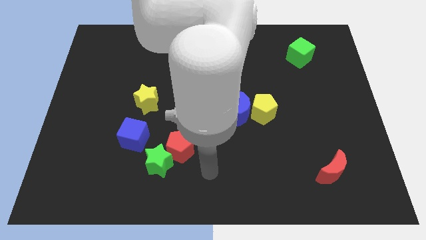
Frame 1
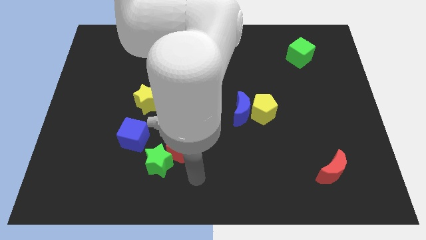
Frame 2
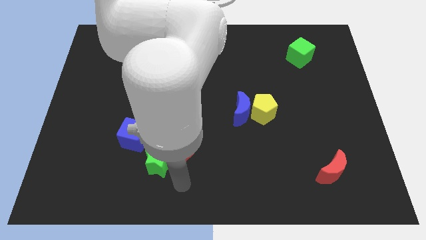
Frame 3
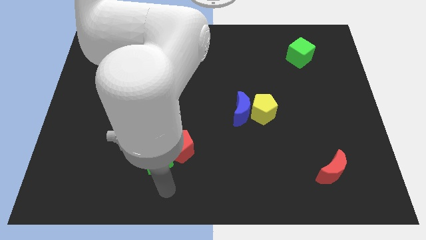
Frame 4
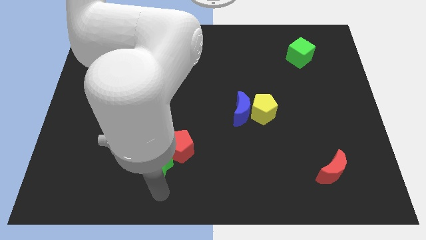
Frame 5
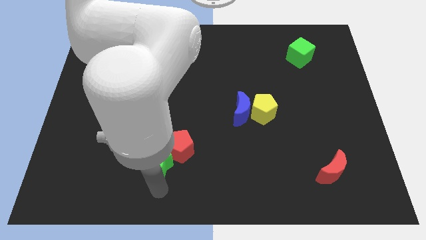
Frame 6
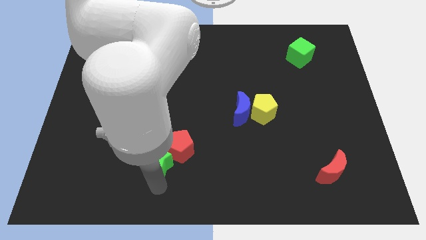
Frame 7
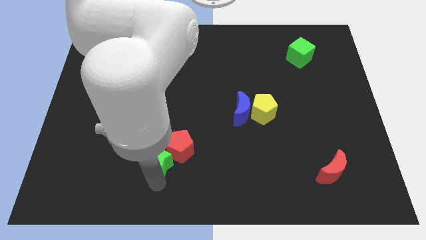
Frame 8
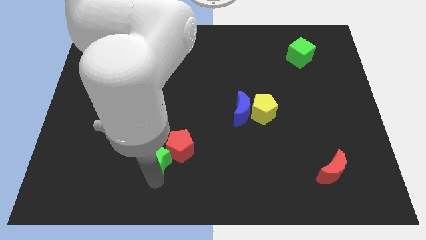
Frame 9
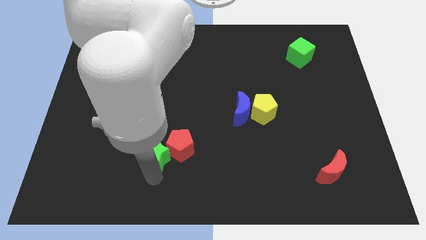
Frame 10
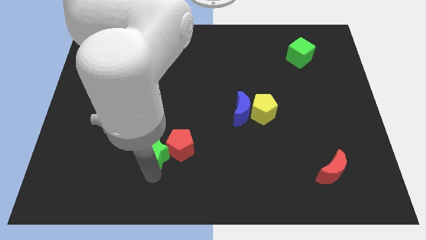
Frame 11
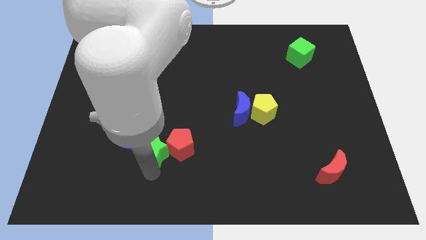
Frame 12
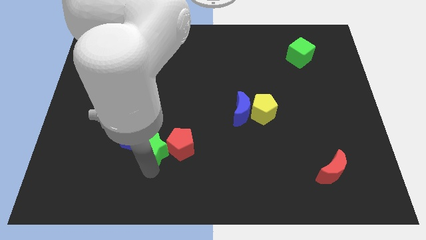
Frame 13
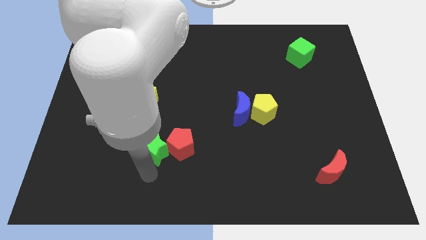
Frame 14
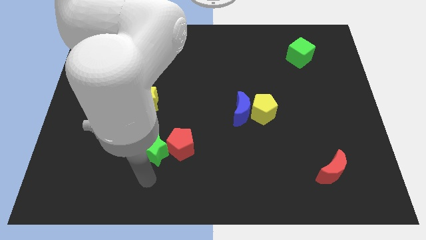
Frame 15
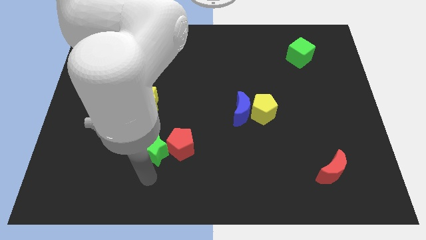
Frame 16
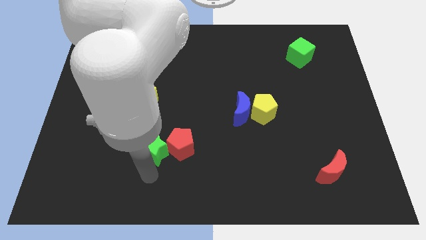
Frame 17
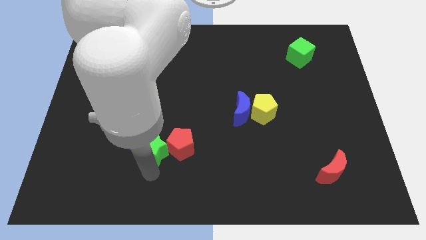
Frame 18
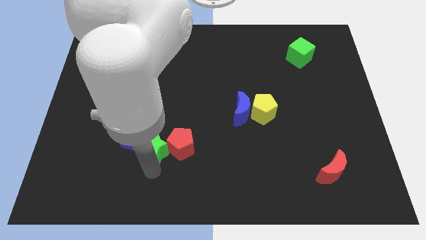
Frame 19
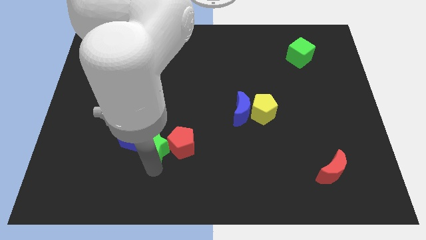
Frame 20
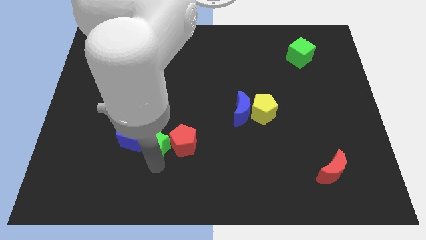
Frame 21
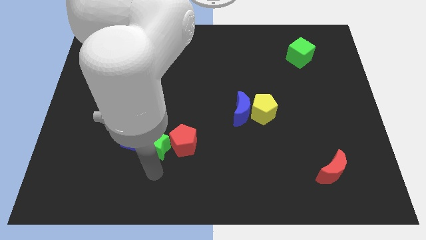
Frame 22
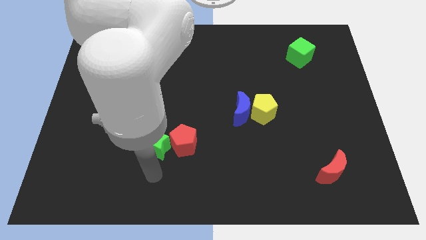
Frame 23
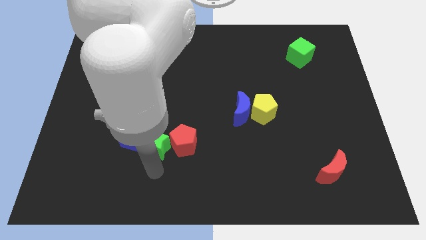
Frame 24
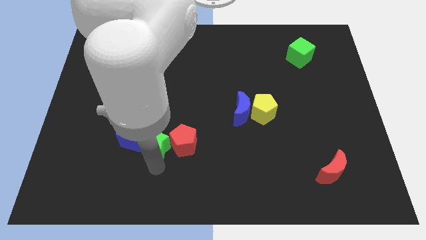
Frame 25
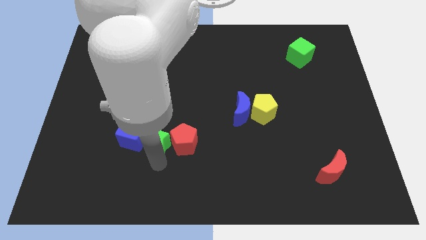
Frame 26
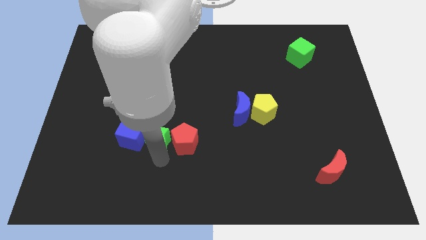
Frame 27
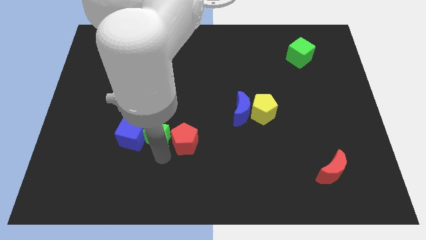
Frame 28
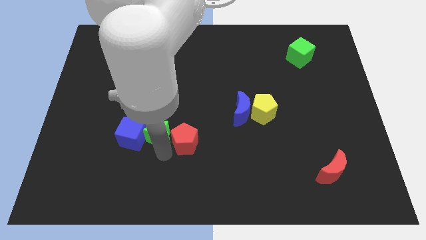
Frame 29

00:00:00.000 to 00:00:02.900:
push the green star a bit upwards

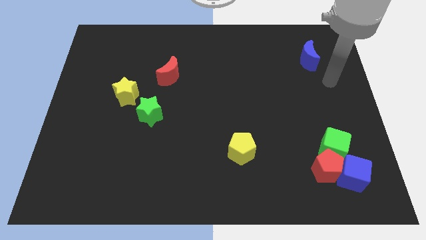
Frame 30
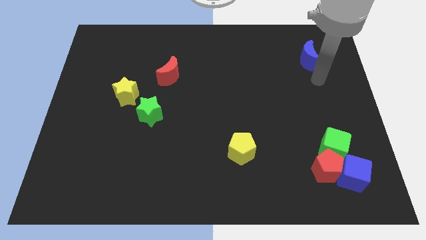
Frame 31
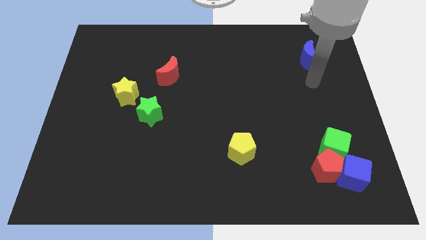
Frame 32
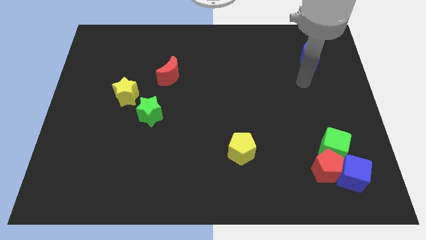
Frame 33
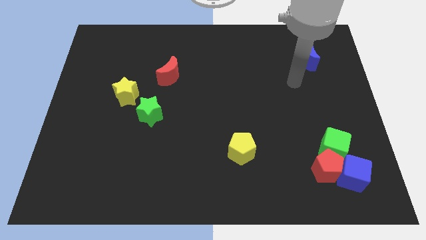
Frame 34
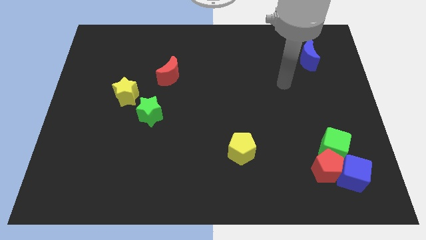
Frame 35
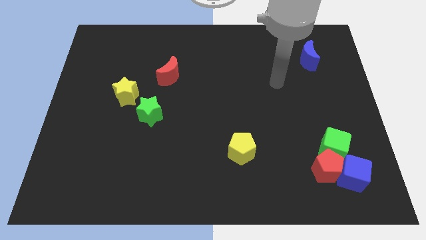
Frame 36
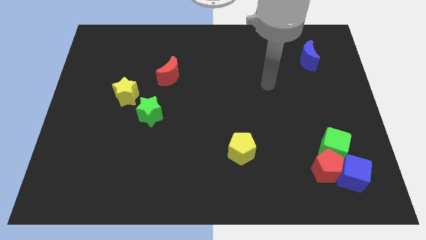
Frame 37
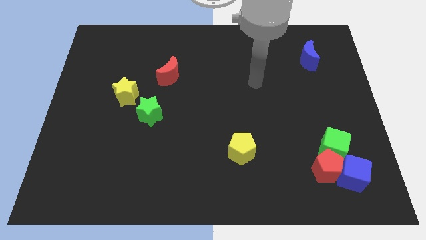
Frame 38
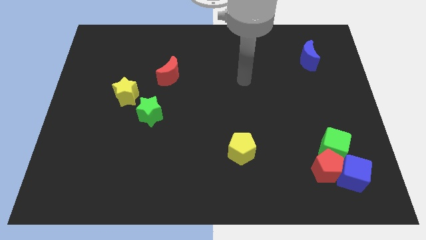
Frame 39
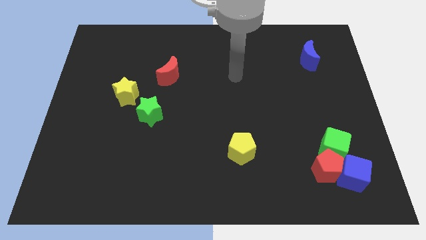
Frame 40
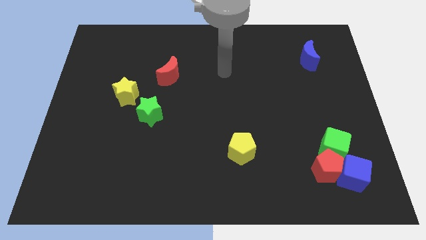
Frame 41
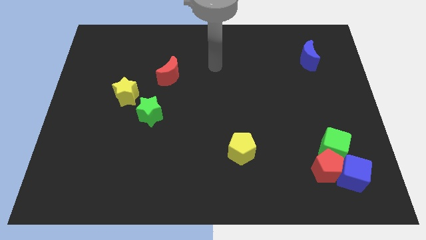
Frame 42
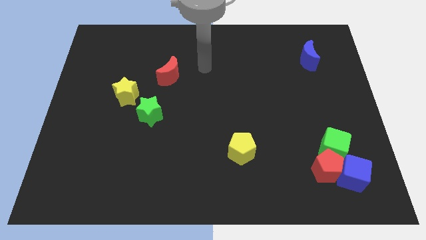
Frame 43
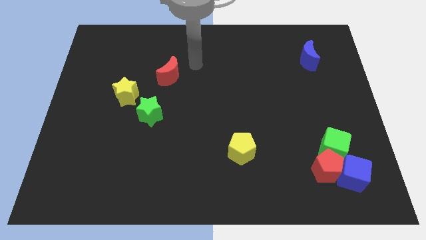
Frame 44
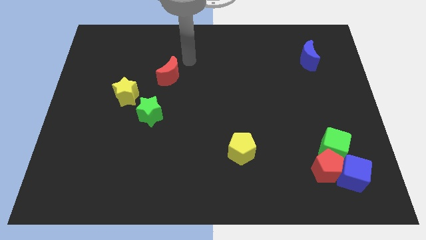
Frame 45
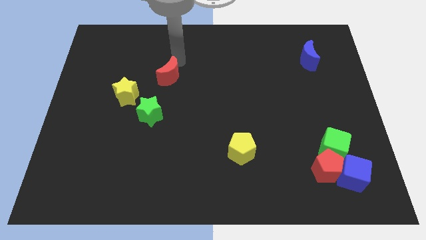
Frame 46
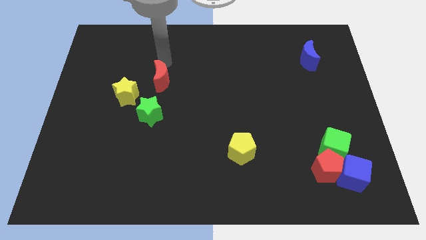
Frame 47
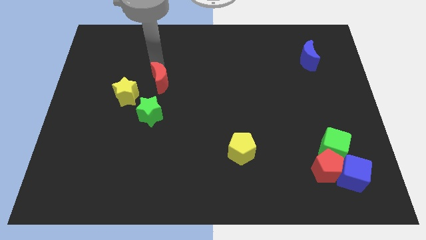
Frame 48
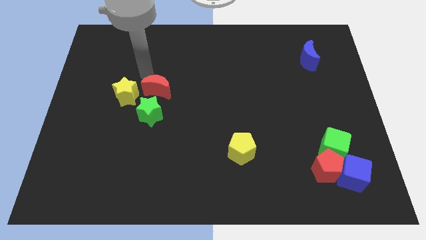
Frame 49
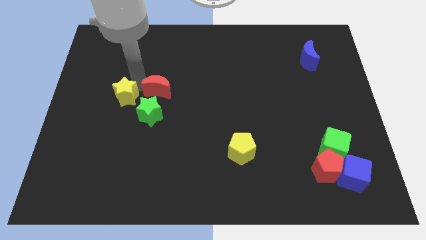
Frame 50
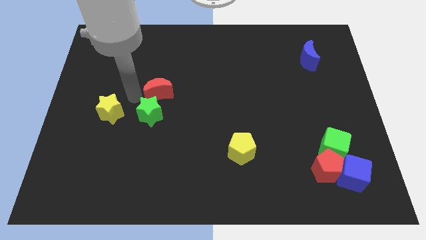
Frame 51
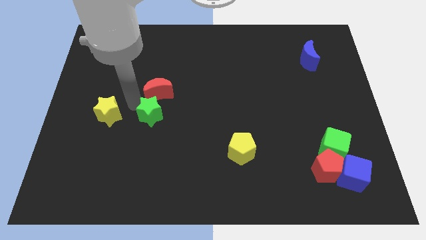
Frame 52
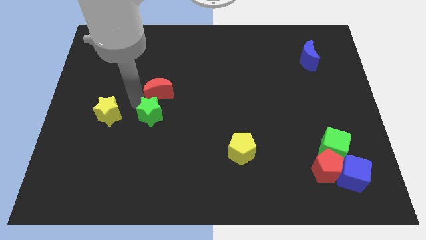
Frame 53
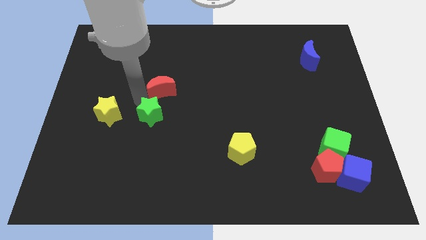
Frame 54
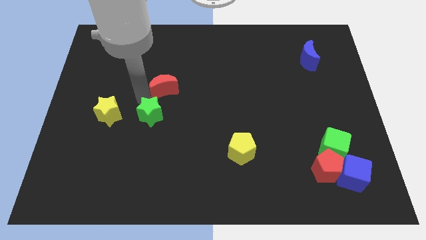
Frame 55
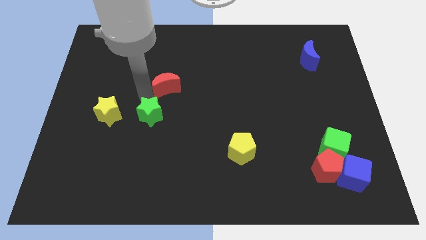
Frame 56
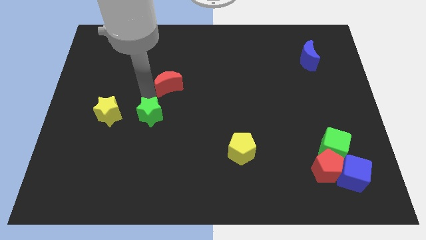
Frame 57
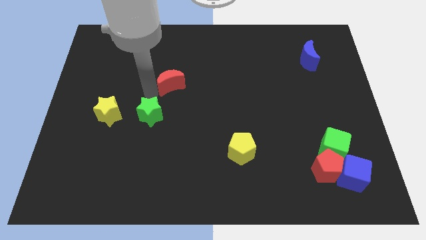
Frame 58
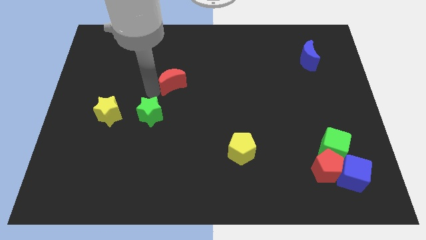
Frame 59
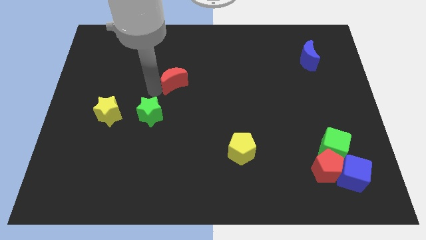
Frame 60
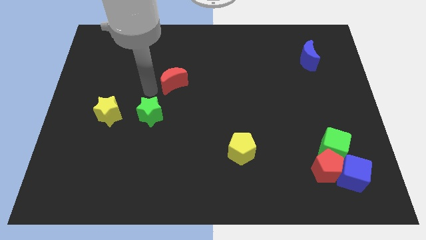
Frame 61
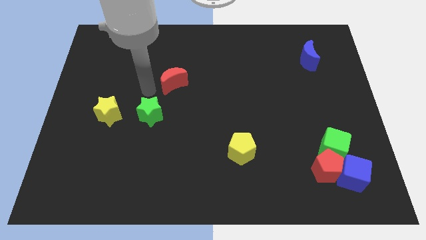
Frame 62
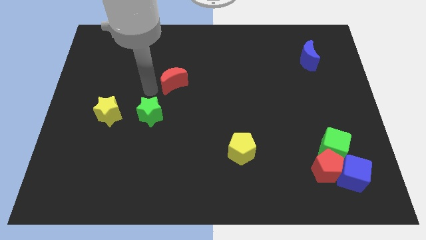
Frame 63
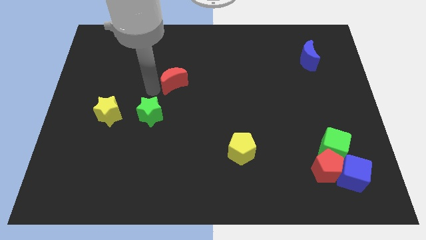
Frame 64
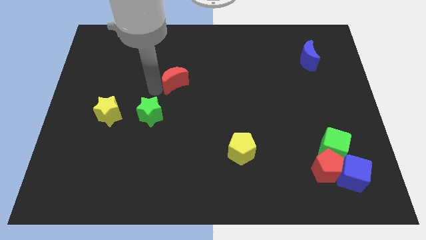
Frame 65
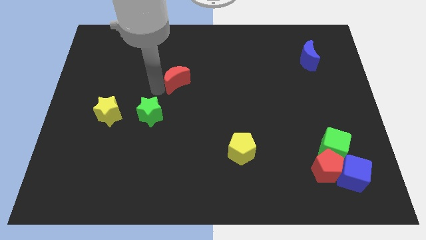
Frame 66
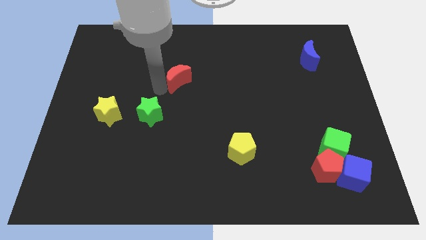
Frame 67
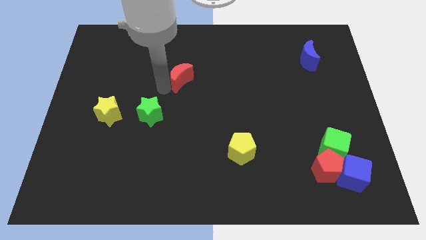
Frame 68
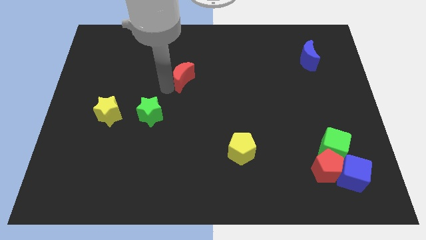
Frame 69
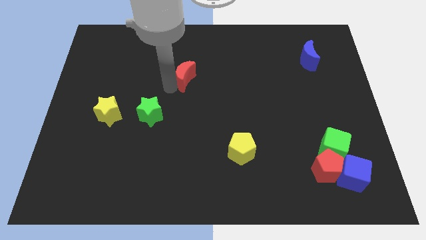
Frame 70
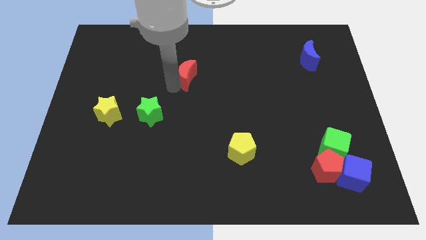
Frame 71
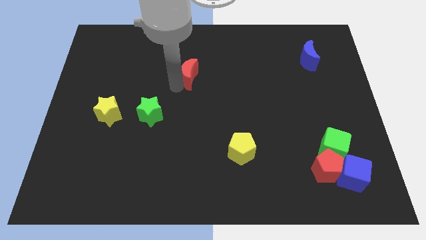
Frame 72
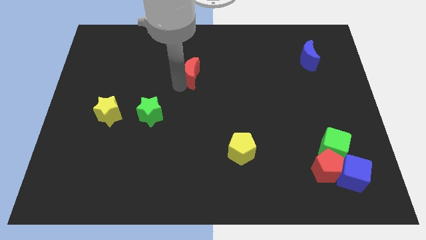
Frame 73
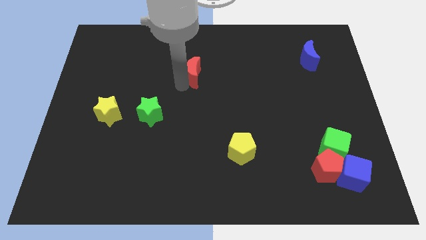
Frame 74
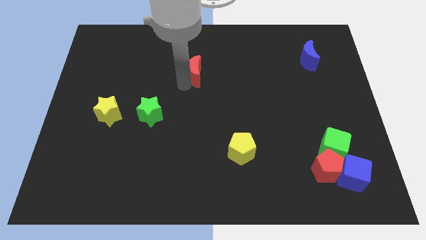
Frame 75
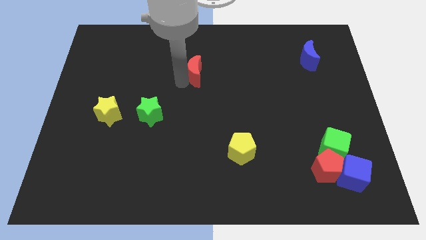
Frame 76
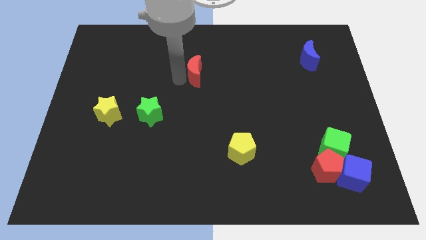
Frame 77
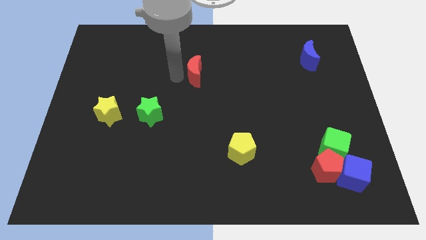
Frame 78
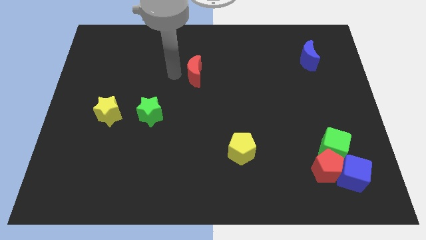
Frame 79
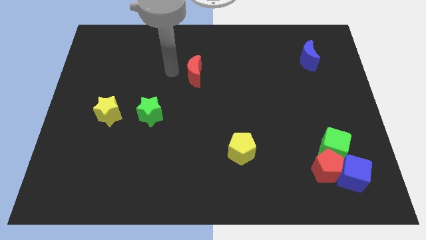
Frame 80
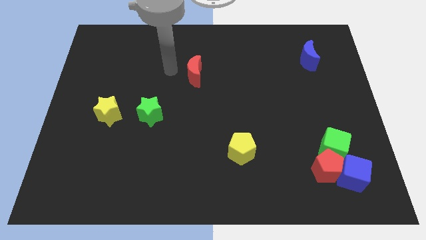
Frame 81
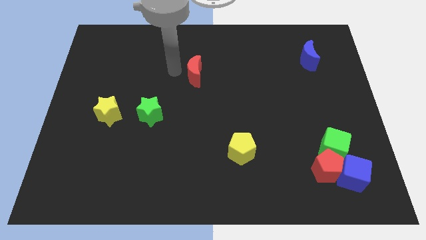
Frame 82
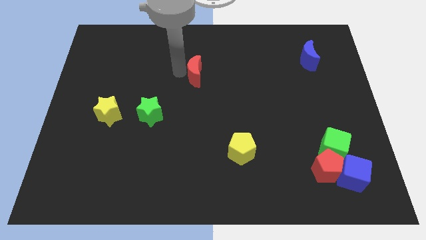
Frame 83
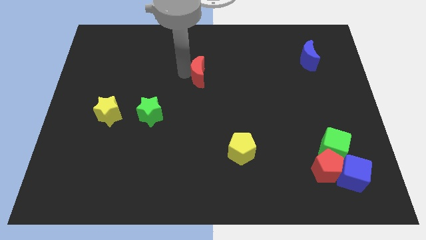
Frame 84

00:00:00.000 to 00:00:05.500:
push the red moon to the right a bit
